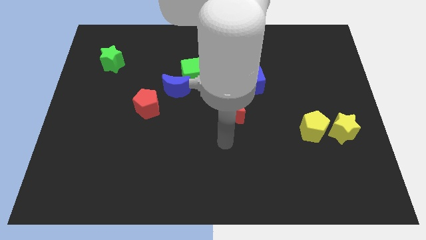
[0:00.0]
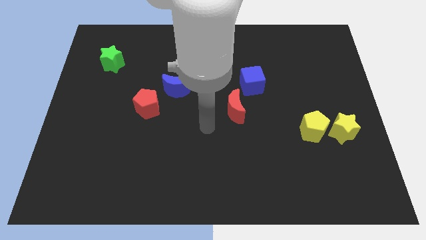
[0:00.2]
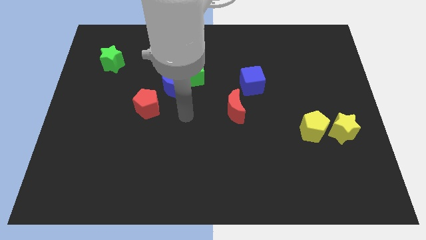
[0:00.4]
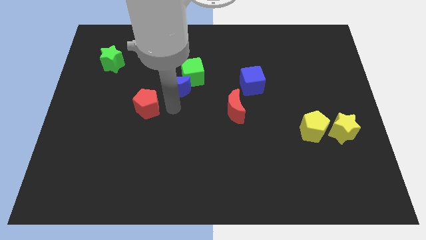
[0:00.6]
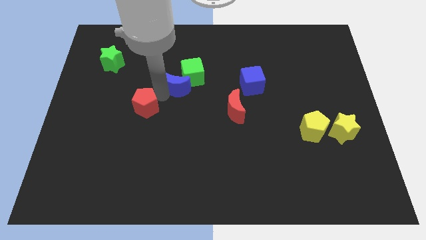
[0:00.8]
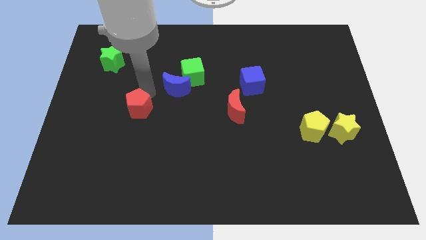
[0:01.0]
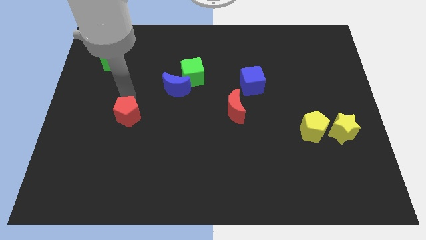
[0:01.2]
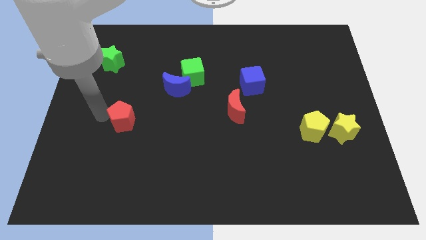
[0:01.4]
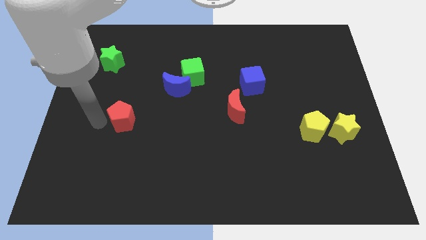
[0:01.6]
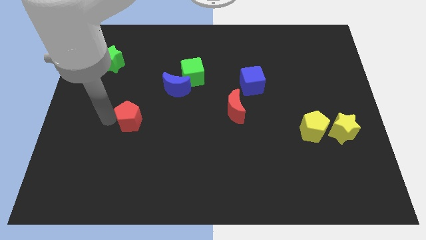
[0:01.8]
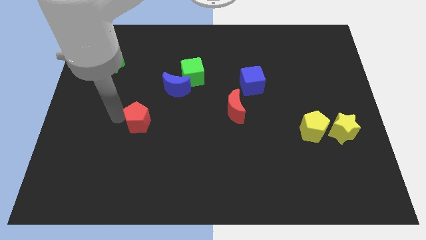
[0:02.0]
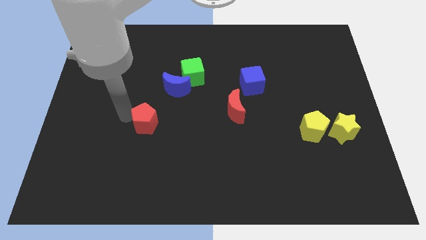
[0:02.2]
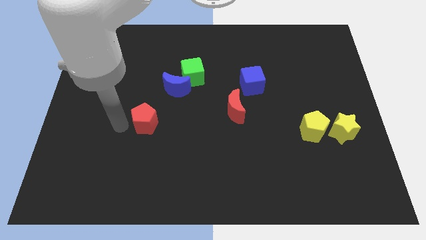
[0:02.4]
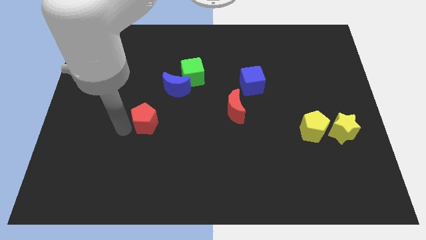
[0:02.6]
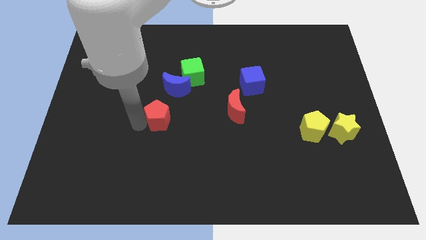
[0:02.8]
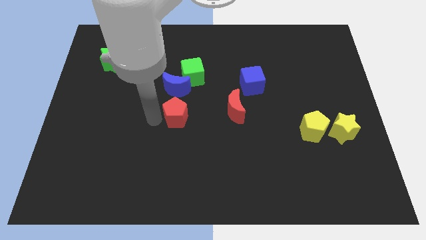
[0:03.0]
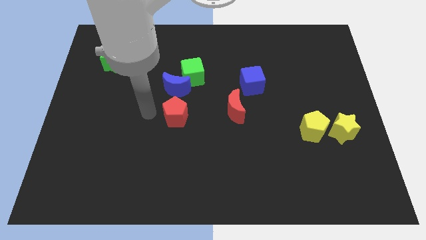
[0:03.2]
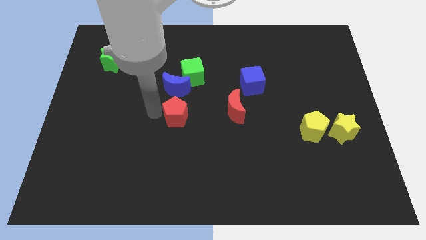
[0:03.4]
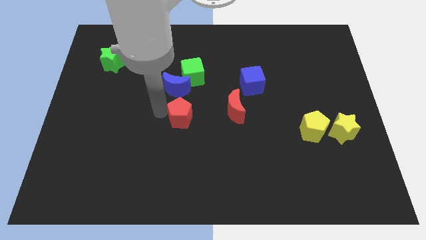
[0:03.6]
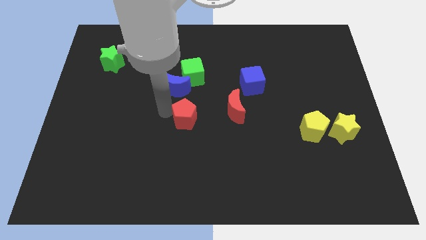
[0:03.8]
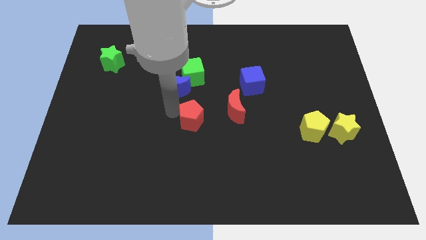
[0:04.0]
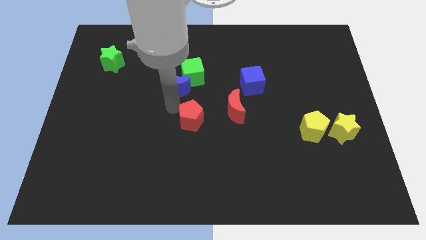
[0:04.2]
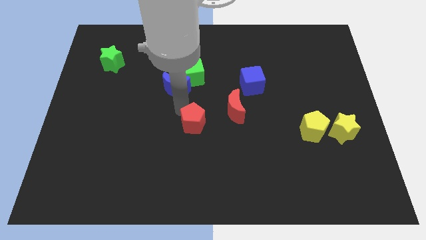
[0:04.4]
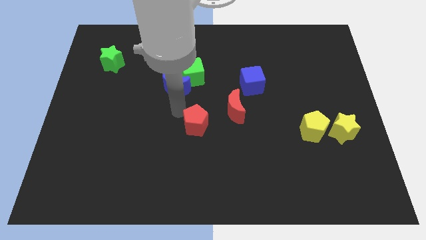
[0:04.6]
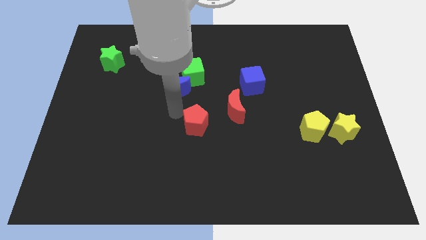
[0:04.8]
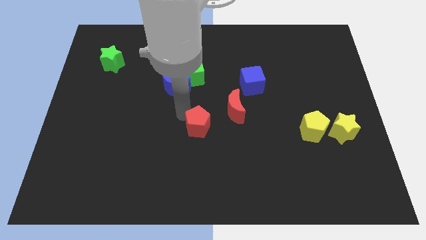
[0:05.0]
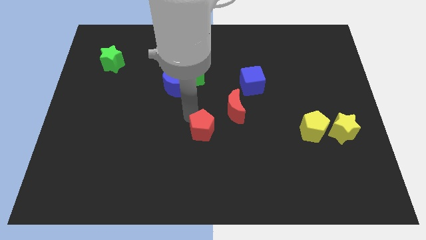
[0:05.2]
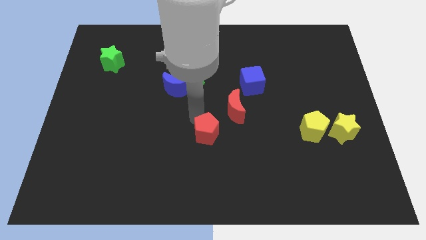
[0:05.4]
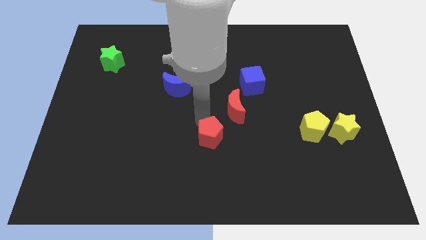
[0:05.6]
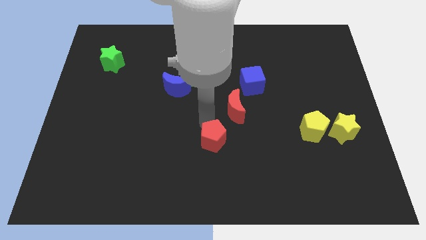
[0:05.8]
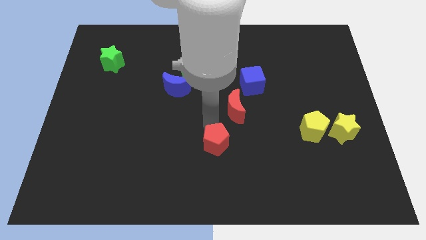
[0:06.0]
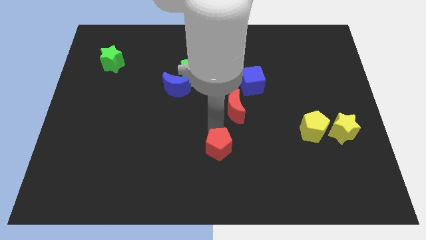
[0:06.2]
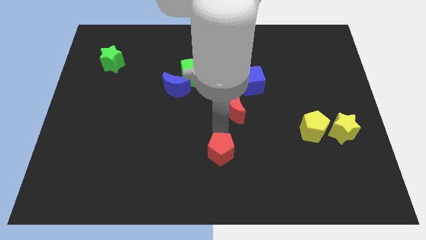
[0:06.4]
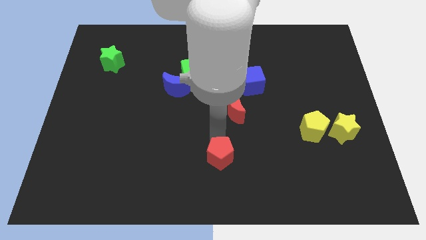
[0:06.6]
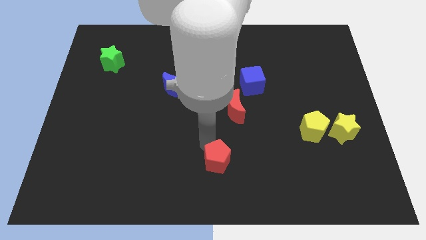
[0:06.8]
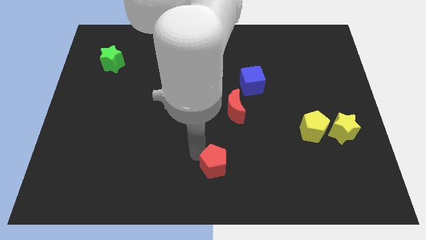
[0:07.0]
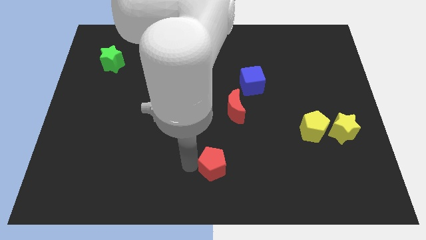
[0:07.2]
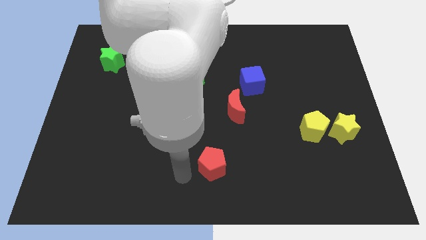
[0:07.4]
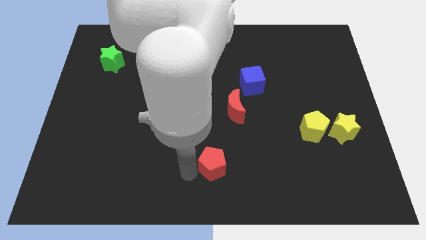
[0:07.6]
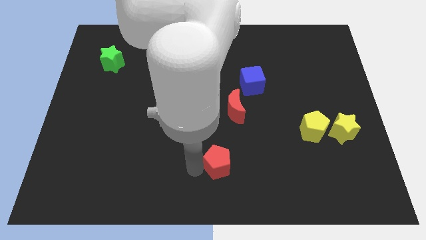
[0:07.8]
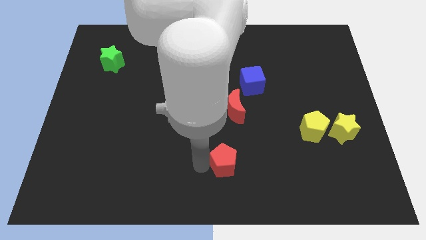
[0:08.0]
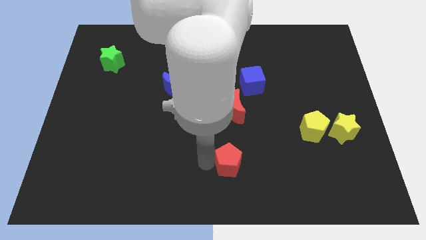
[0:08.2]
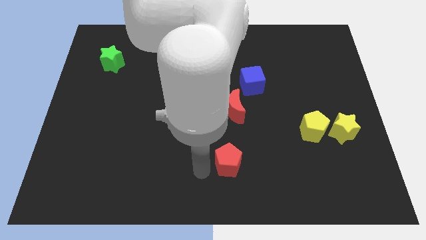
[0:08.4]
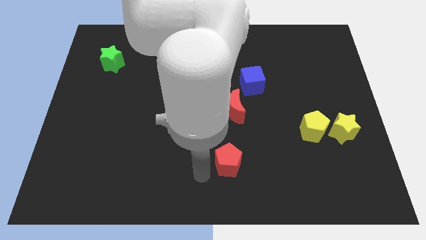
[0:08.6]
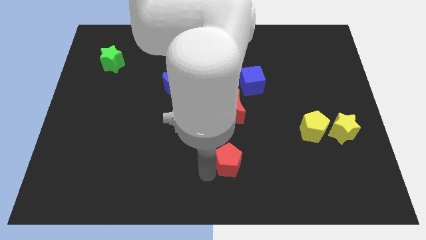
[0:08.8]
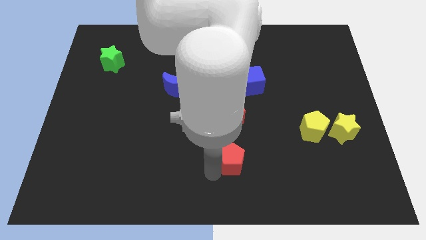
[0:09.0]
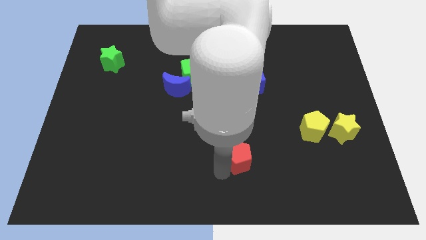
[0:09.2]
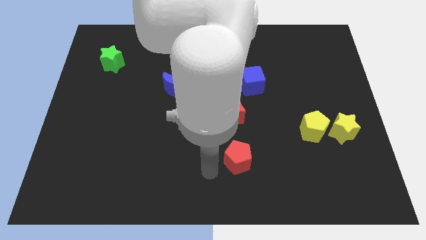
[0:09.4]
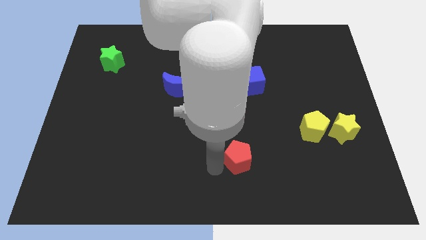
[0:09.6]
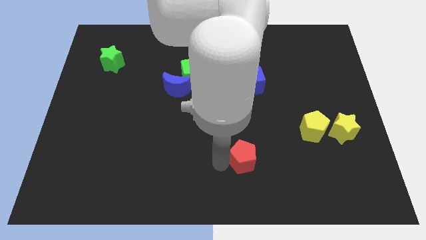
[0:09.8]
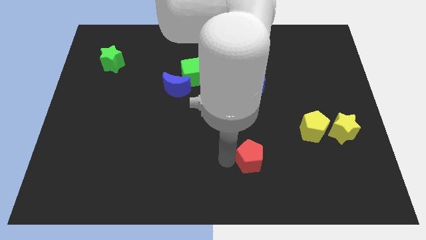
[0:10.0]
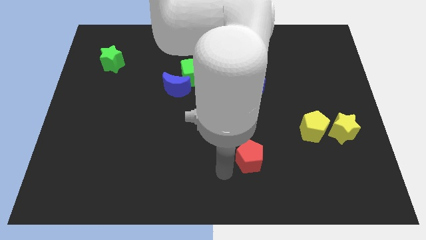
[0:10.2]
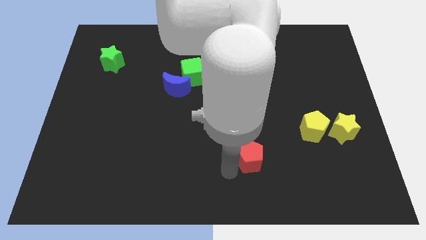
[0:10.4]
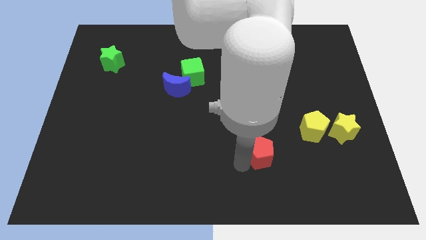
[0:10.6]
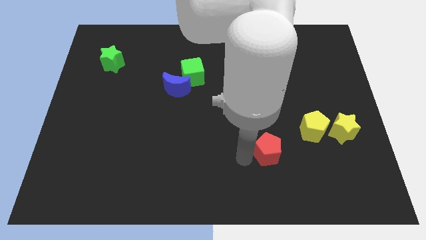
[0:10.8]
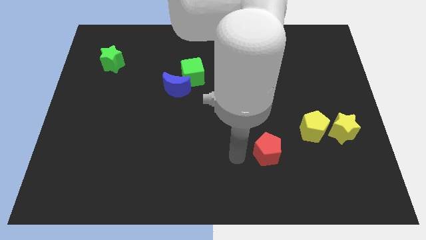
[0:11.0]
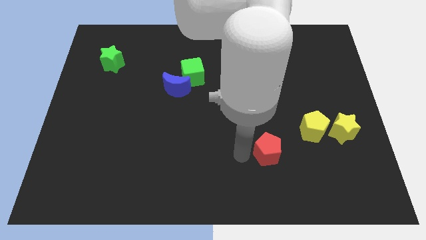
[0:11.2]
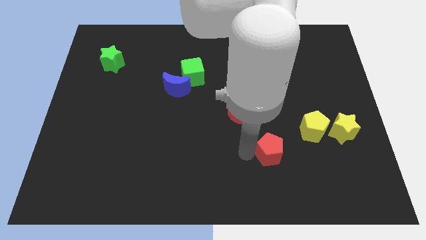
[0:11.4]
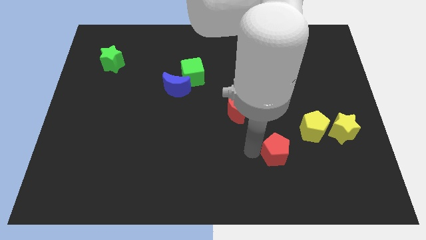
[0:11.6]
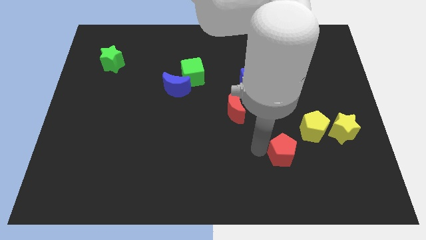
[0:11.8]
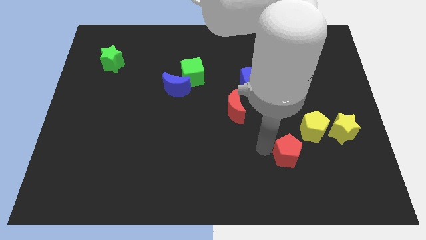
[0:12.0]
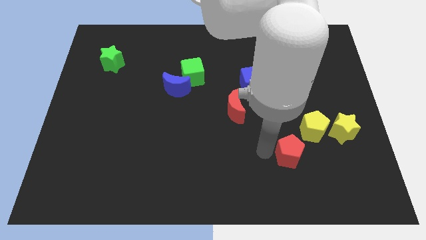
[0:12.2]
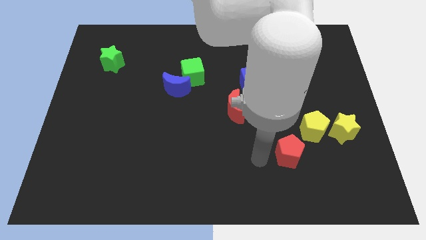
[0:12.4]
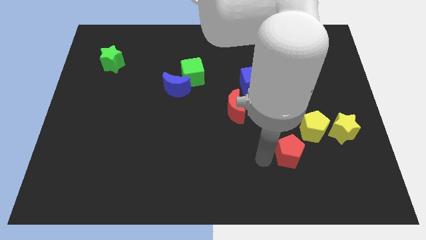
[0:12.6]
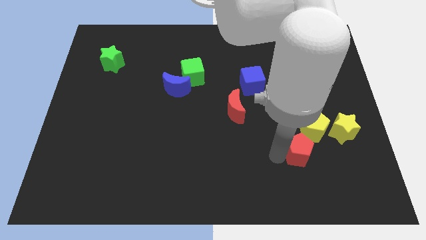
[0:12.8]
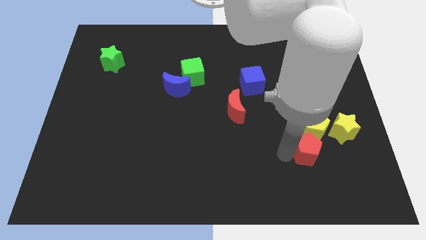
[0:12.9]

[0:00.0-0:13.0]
put the red pentagon diagonally down and to the left of the yellow star
